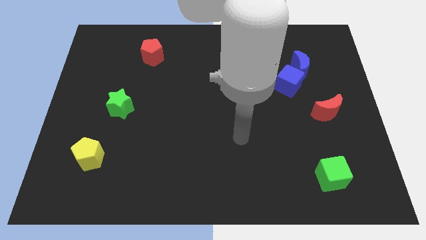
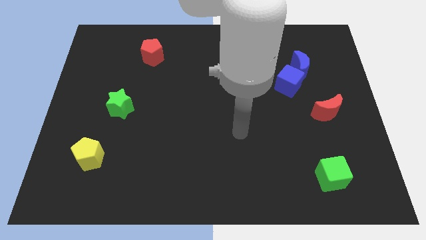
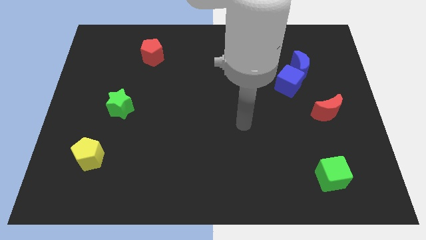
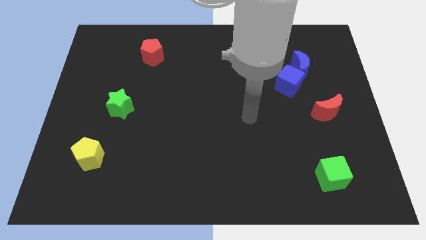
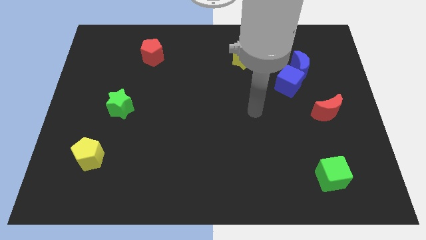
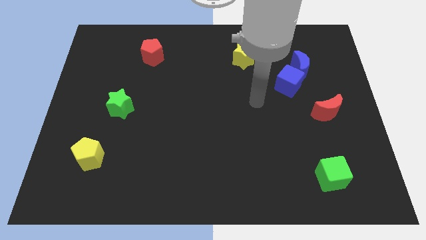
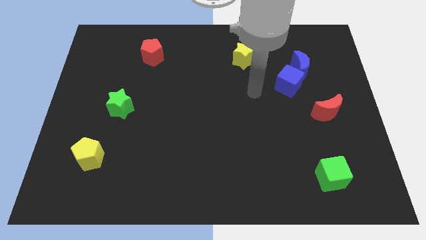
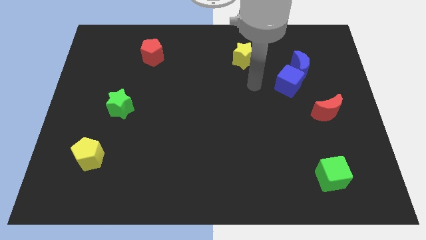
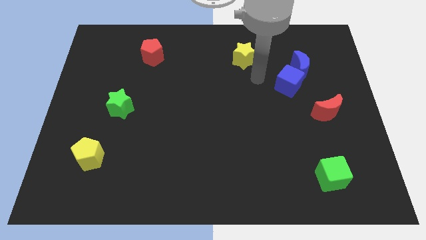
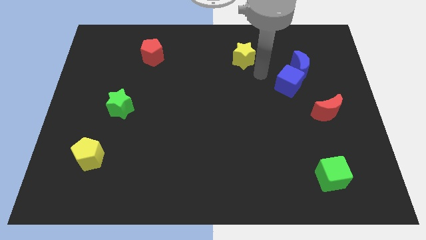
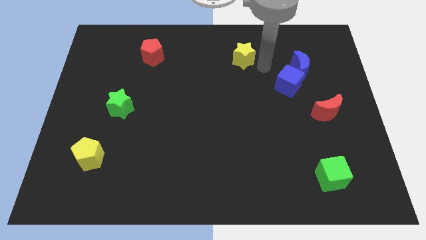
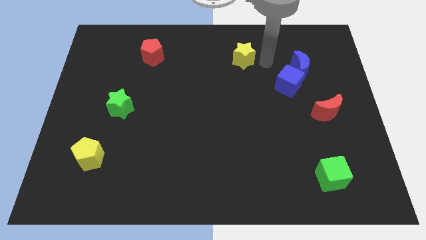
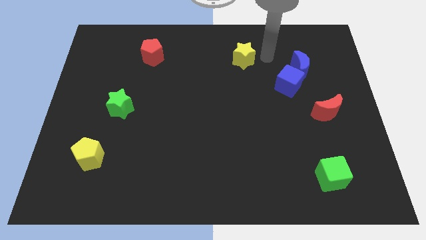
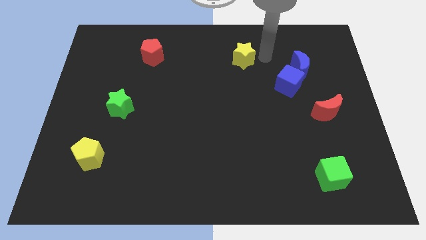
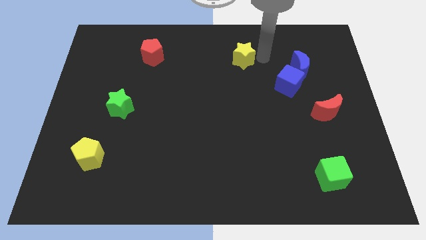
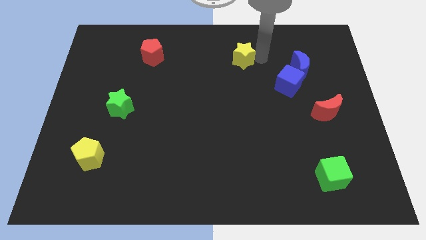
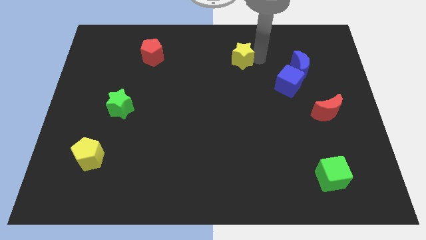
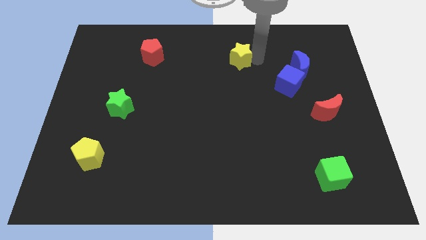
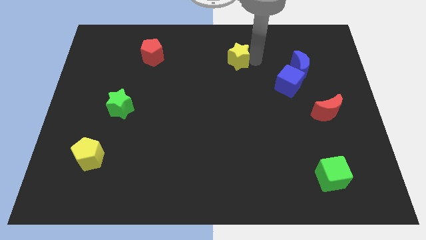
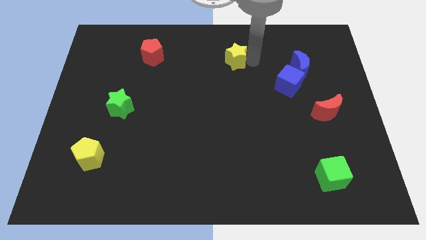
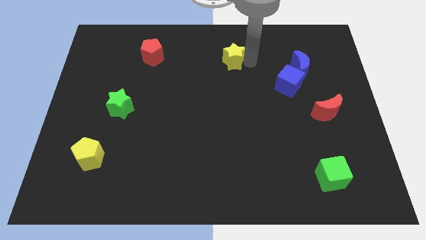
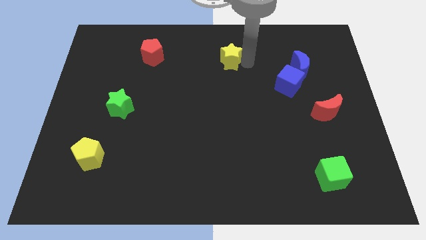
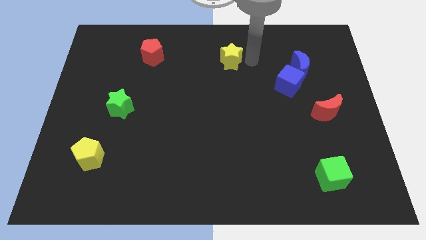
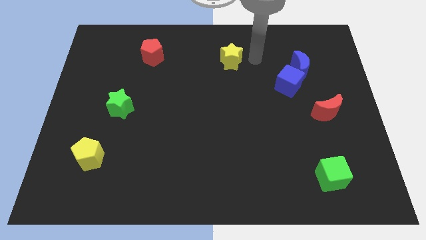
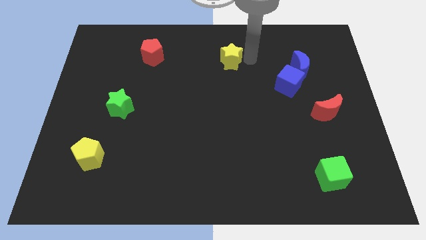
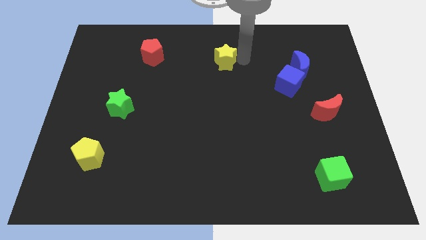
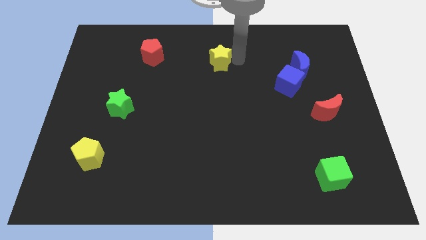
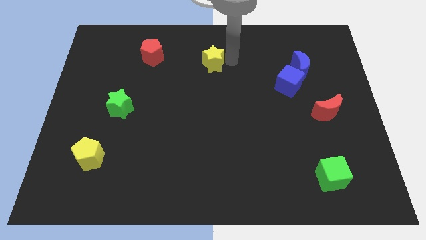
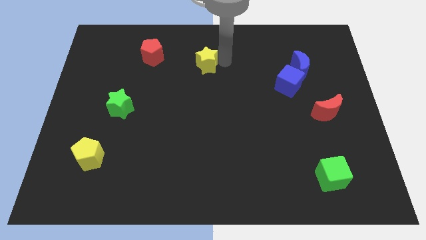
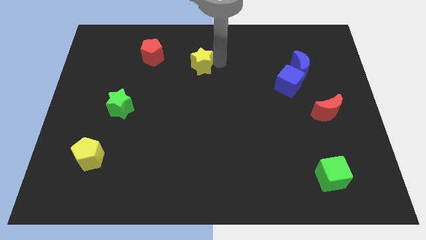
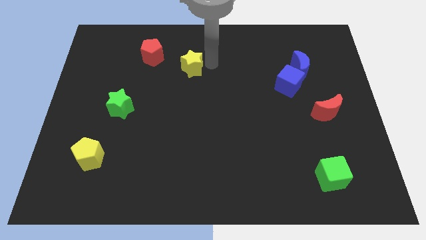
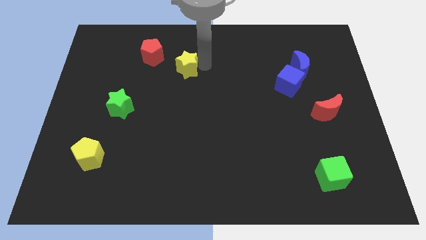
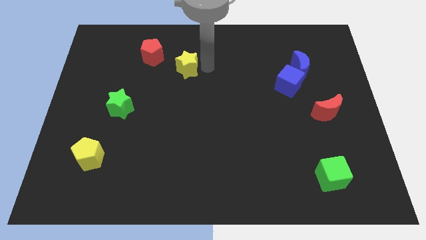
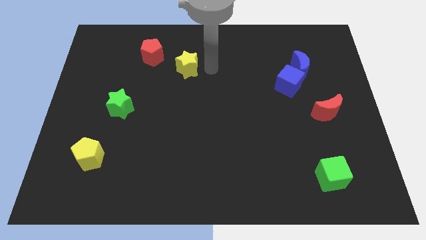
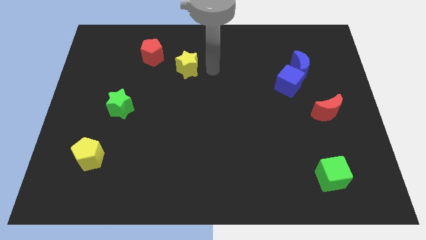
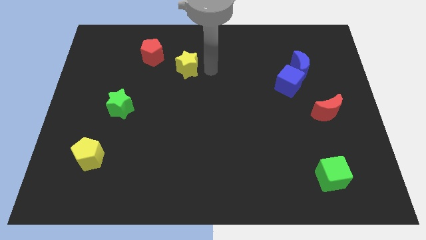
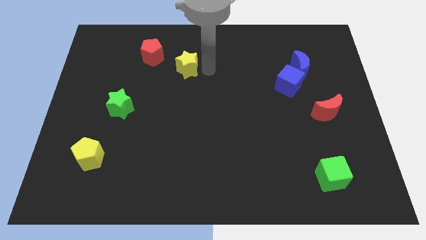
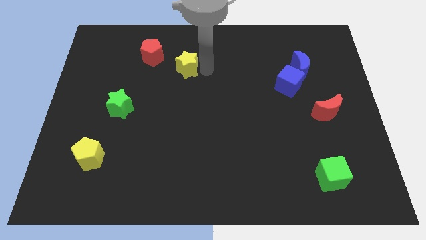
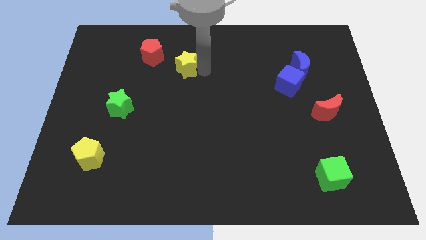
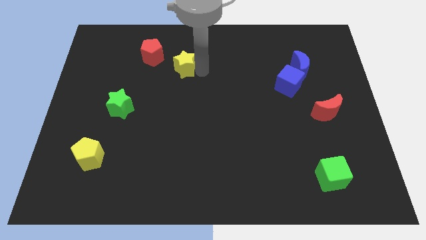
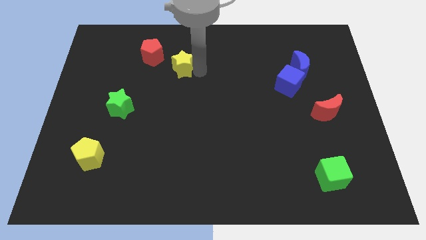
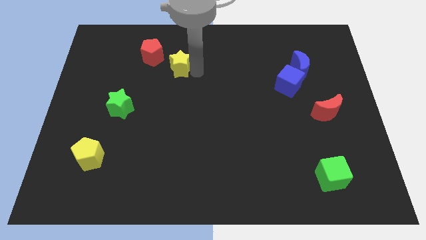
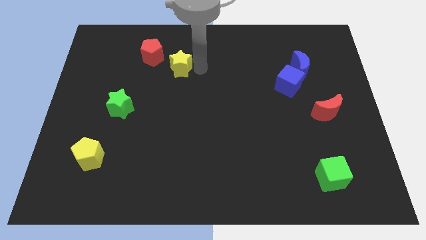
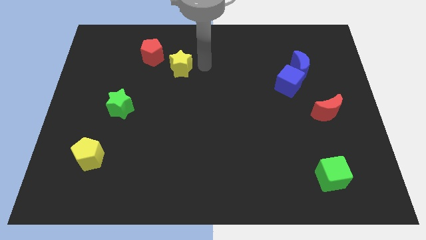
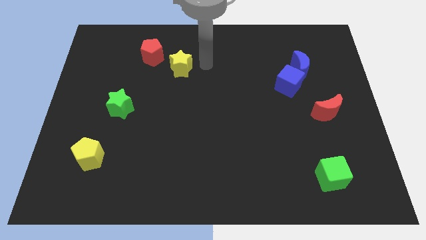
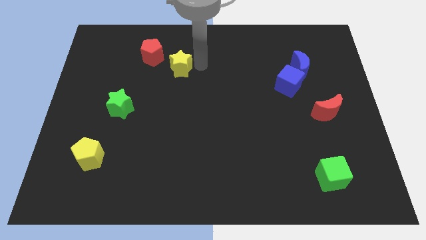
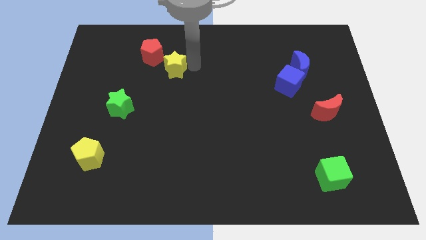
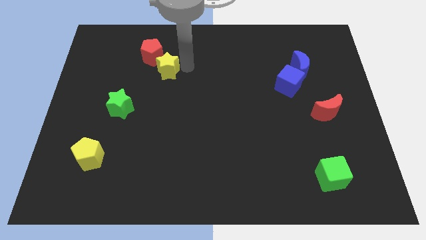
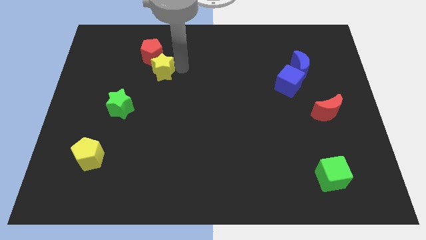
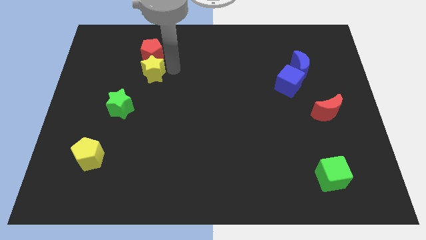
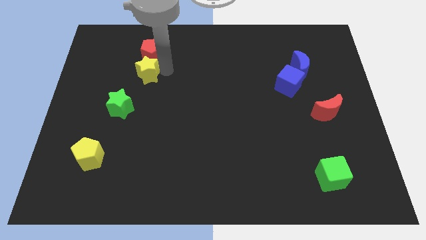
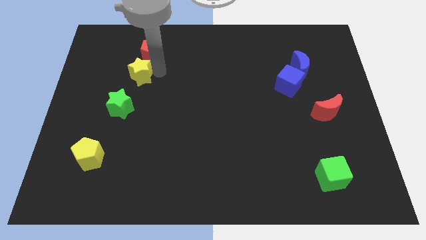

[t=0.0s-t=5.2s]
slide the yellow star above the green star

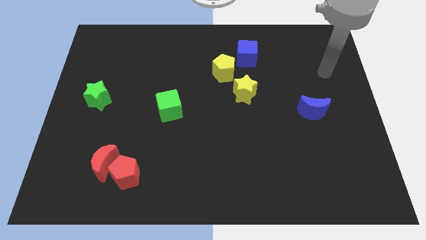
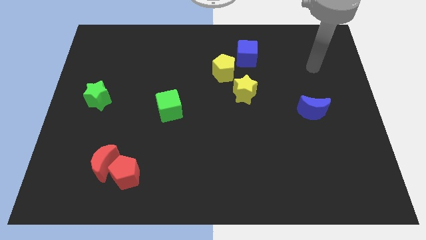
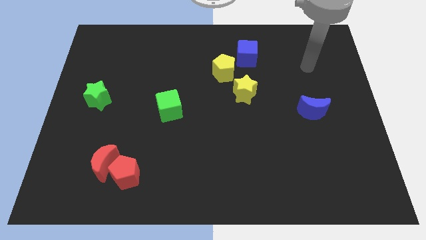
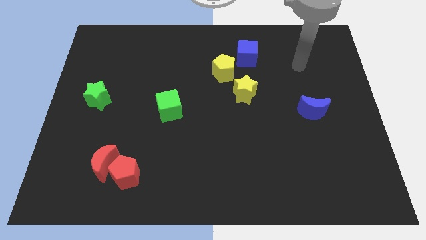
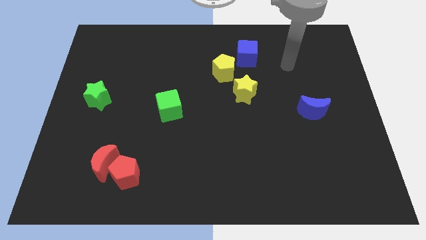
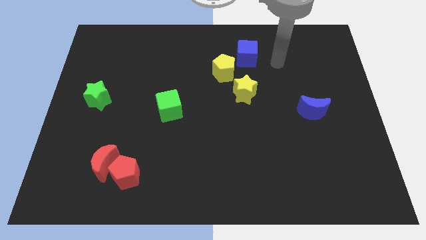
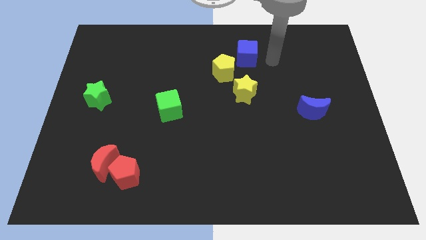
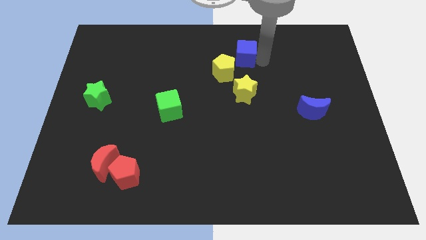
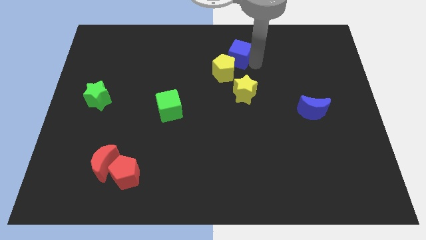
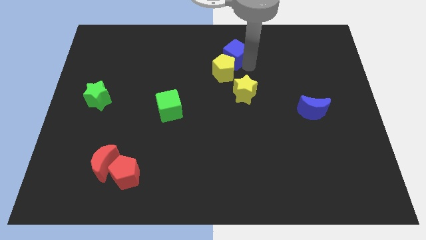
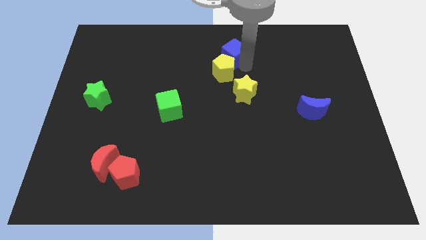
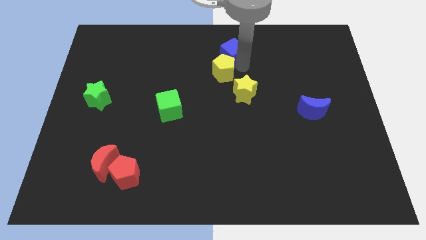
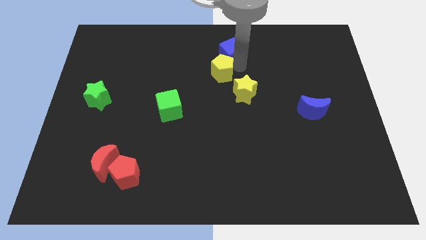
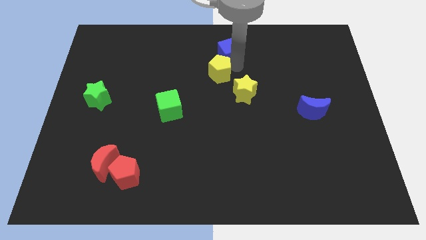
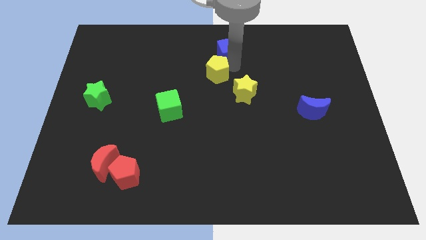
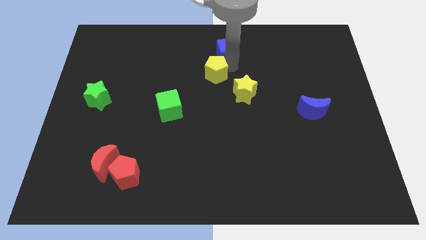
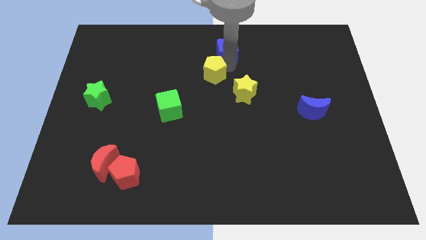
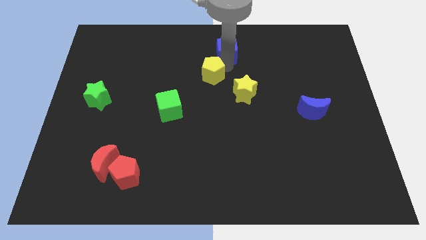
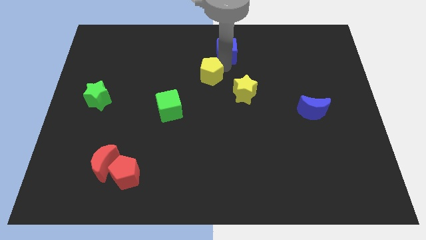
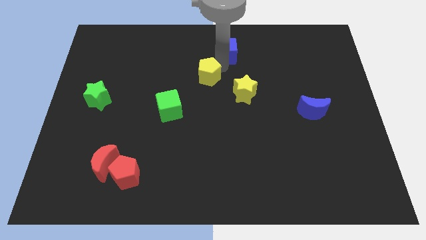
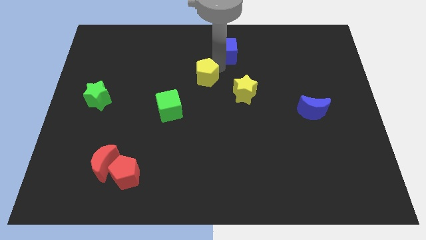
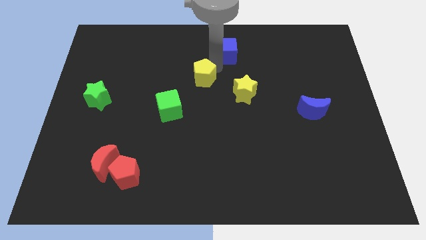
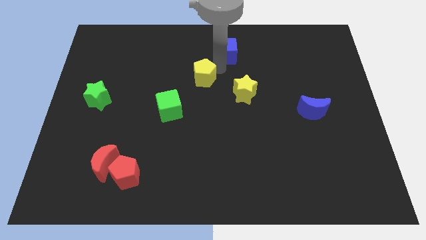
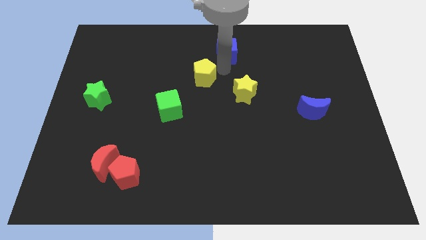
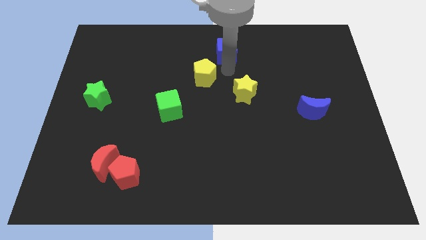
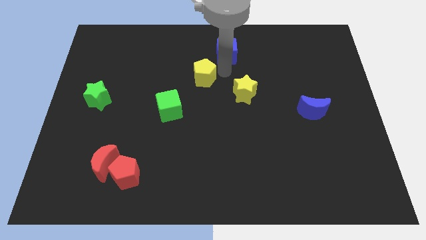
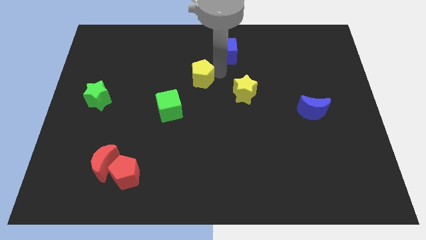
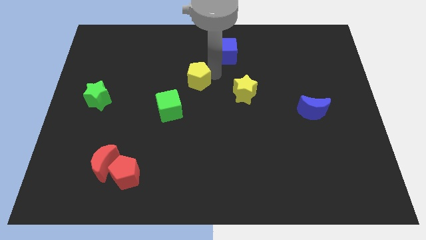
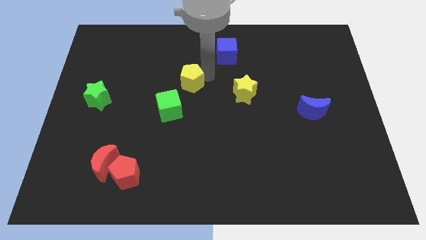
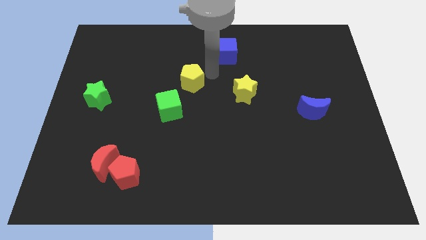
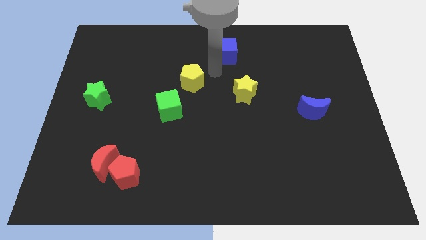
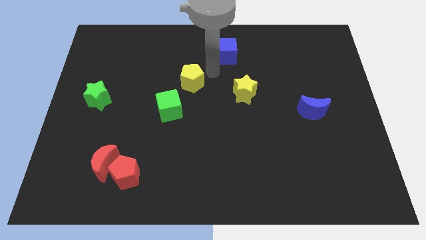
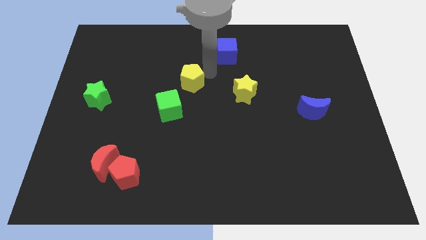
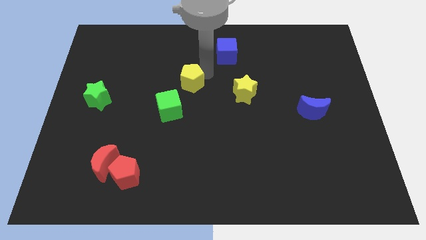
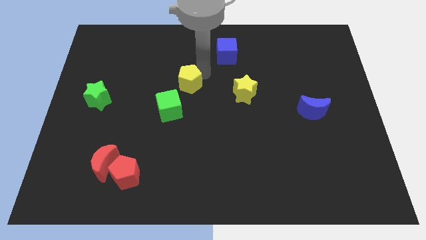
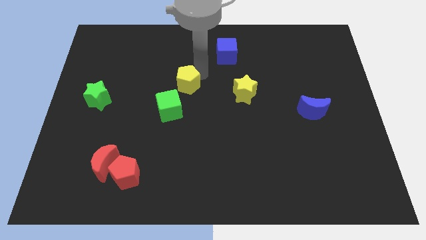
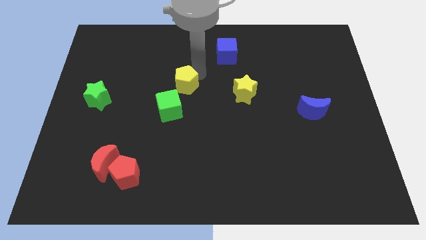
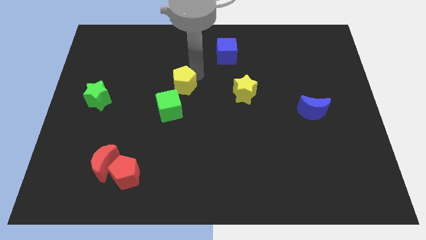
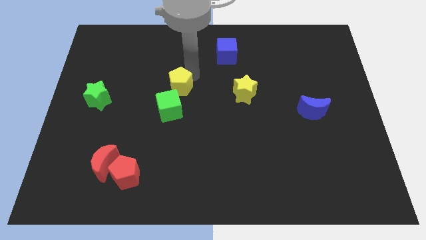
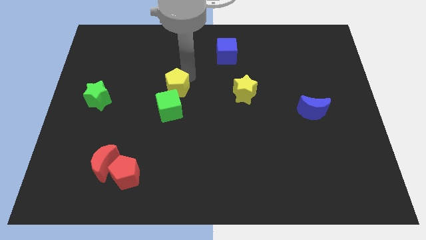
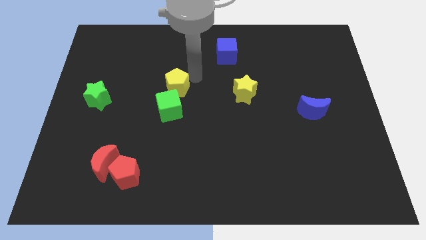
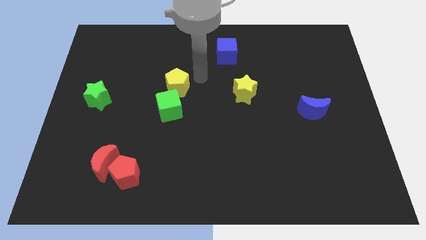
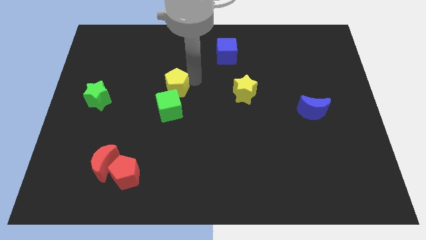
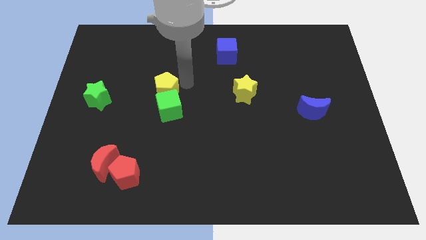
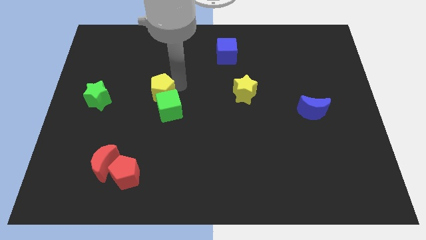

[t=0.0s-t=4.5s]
slide the yellow pentagon right of the green star
